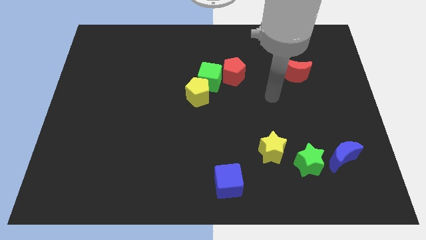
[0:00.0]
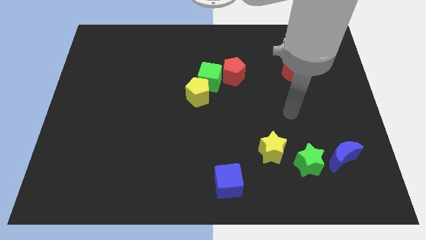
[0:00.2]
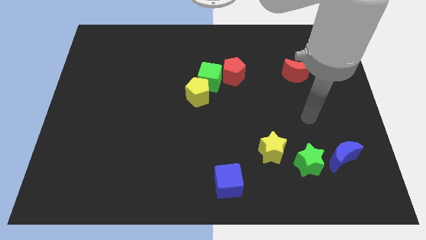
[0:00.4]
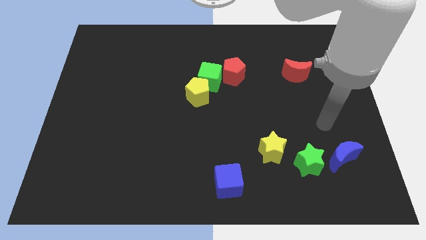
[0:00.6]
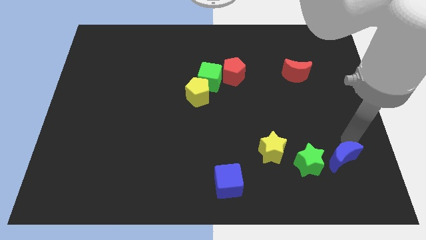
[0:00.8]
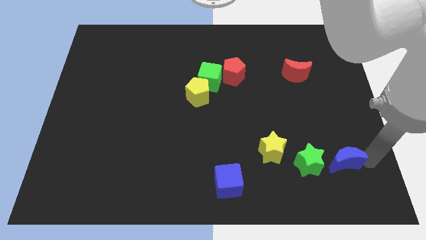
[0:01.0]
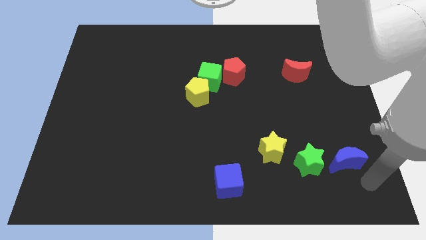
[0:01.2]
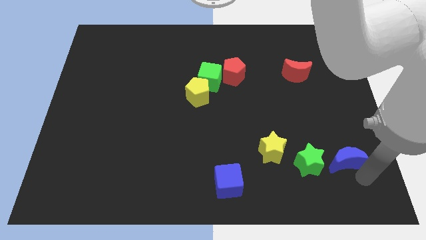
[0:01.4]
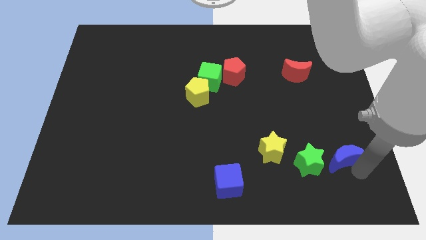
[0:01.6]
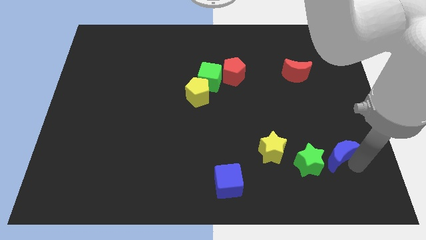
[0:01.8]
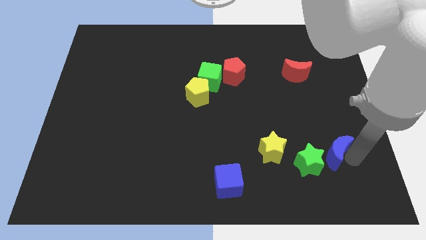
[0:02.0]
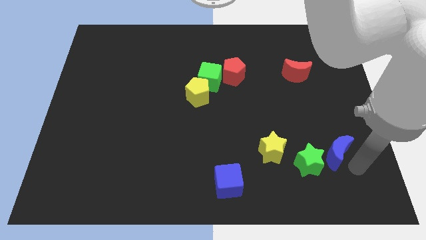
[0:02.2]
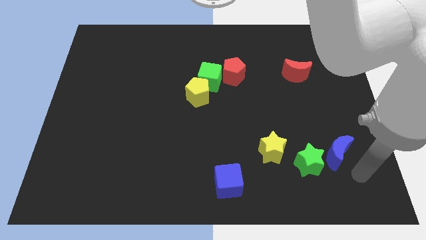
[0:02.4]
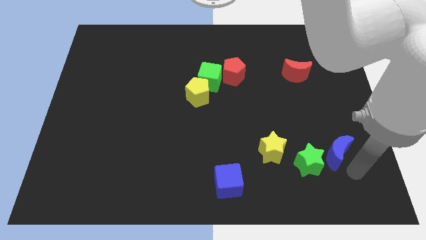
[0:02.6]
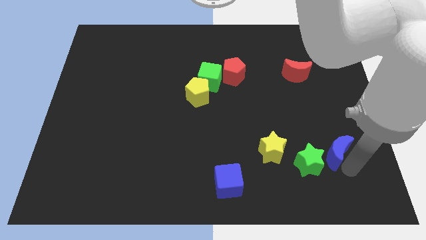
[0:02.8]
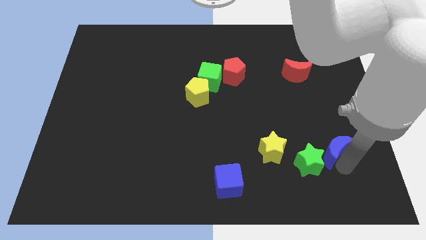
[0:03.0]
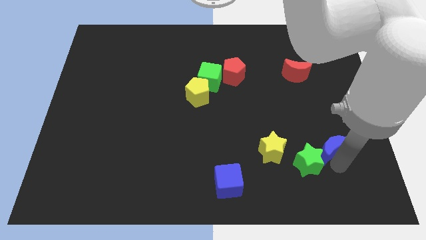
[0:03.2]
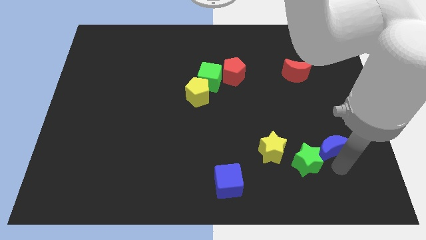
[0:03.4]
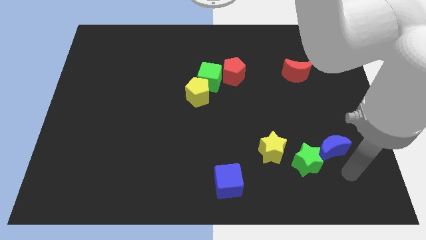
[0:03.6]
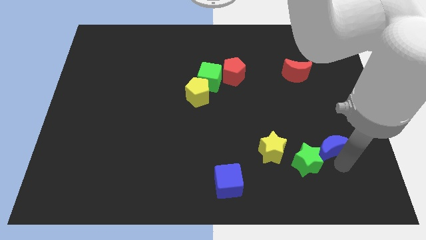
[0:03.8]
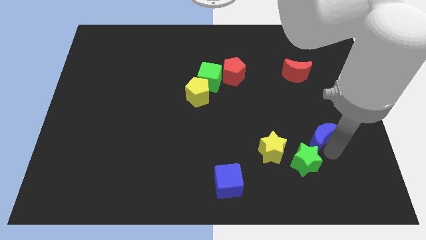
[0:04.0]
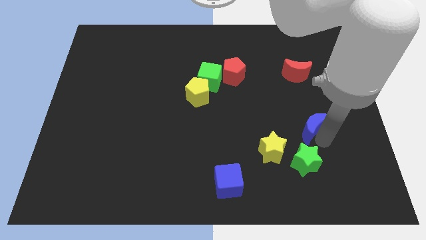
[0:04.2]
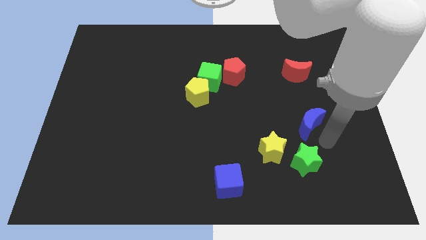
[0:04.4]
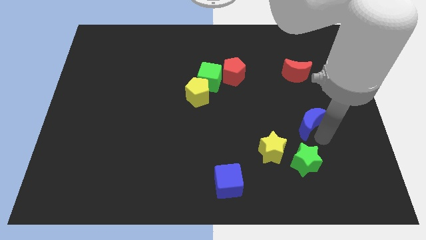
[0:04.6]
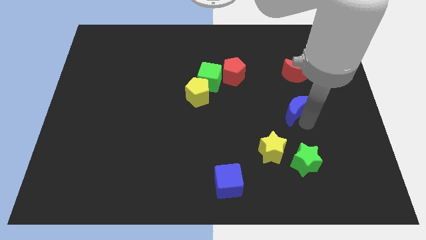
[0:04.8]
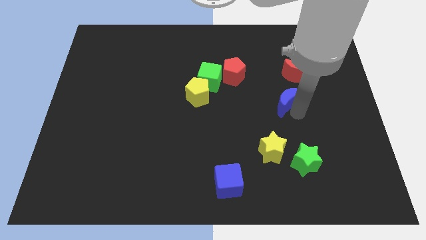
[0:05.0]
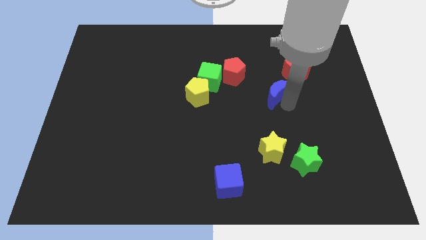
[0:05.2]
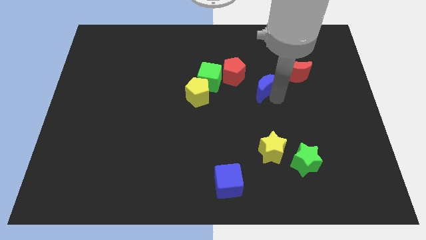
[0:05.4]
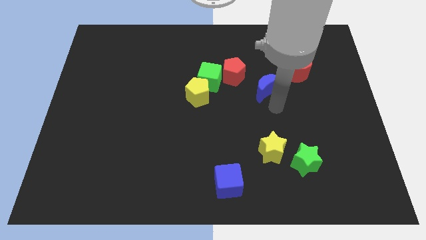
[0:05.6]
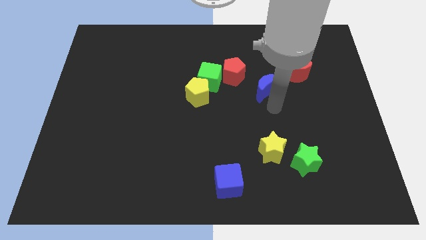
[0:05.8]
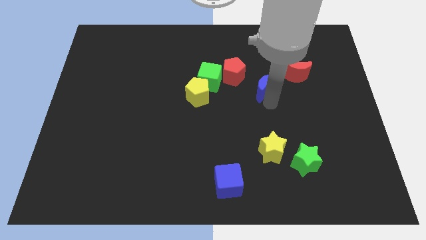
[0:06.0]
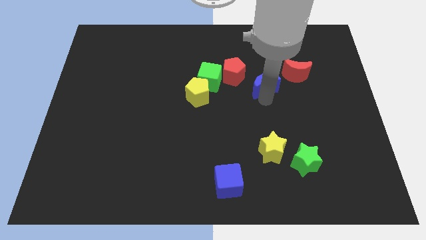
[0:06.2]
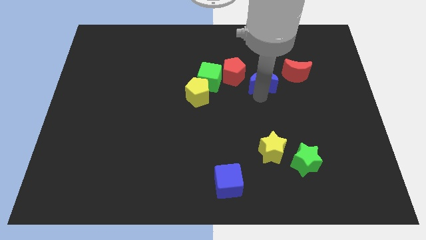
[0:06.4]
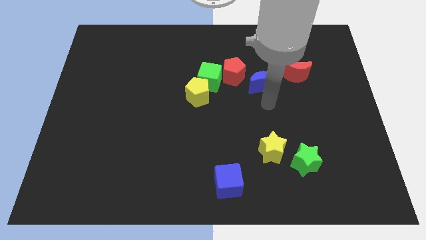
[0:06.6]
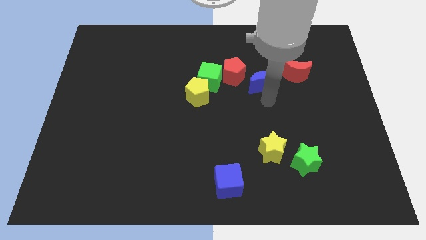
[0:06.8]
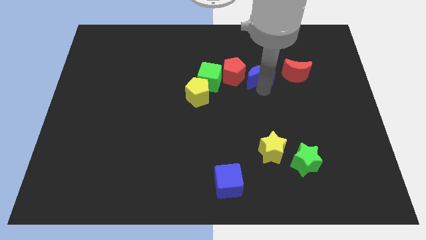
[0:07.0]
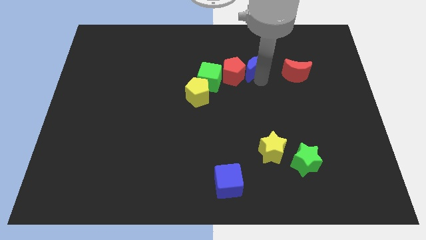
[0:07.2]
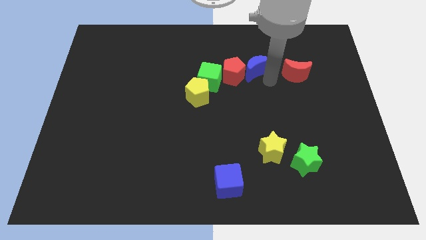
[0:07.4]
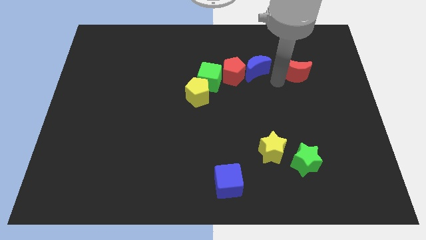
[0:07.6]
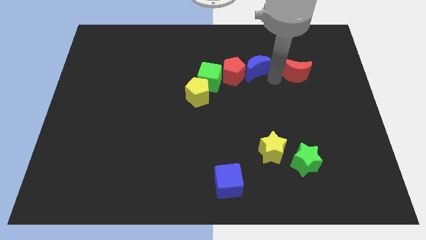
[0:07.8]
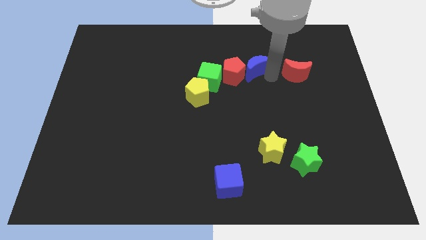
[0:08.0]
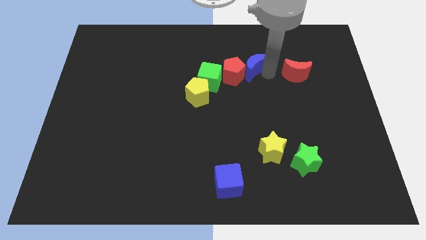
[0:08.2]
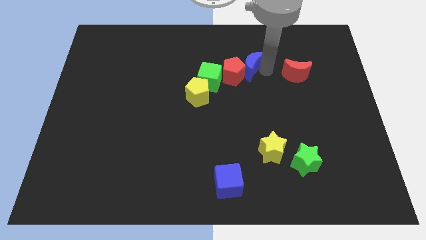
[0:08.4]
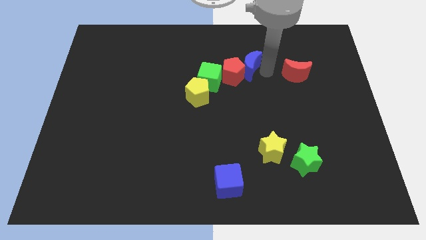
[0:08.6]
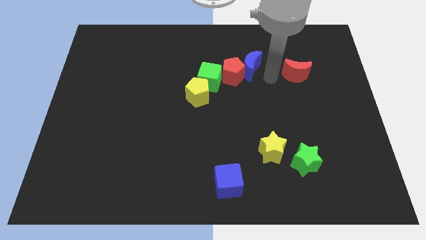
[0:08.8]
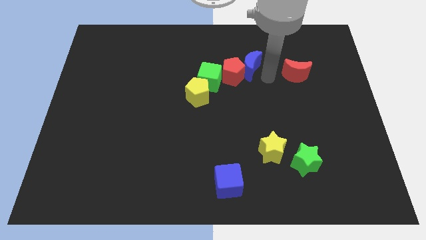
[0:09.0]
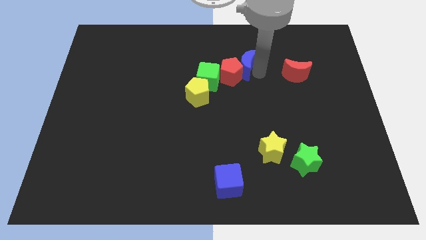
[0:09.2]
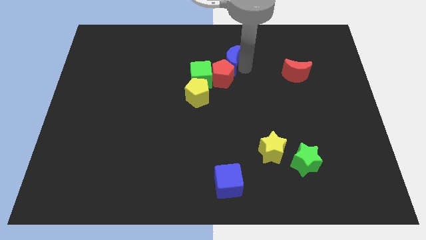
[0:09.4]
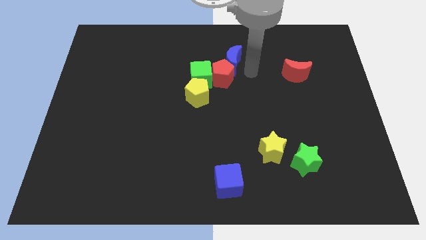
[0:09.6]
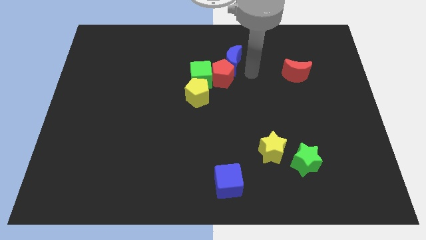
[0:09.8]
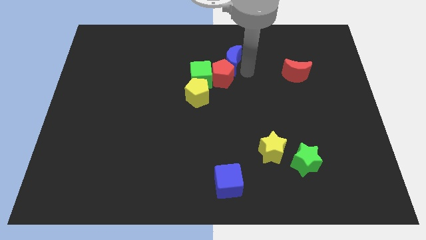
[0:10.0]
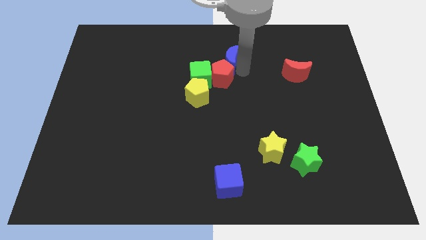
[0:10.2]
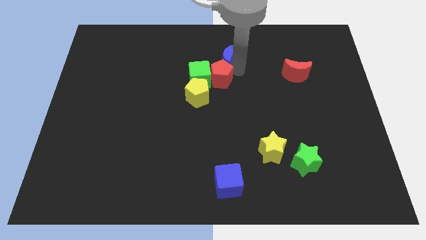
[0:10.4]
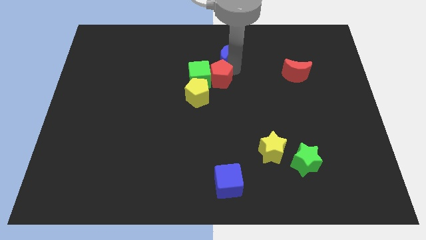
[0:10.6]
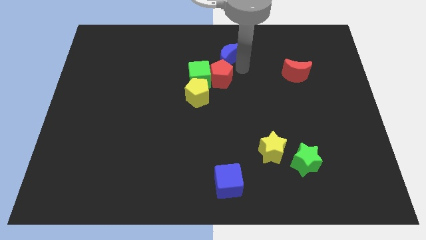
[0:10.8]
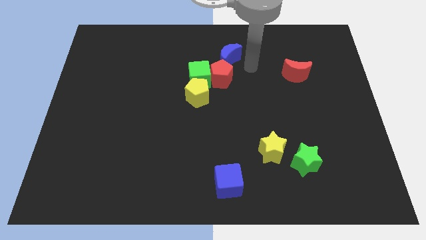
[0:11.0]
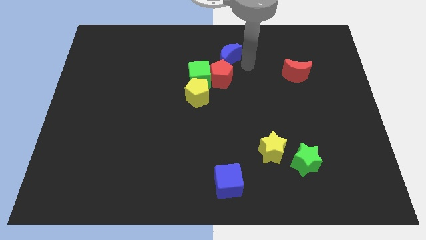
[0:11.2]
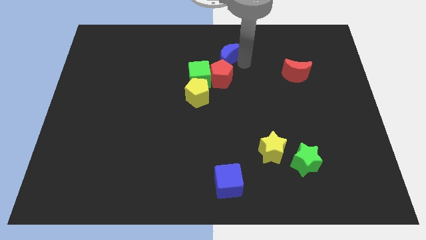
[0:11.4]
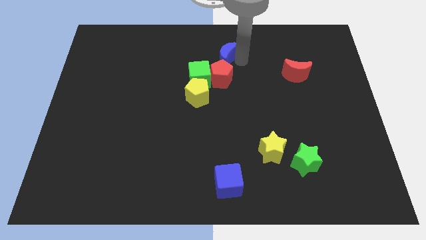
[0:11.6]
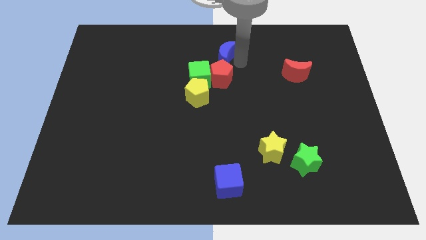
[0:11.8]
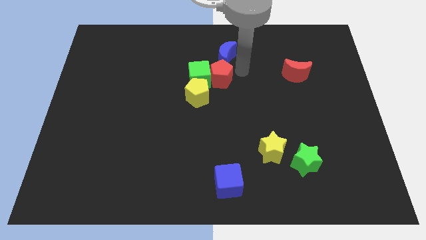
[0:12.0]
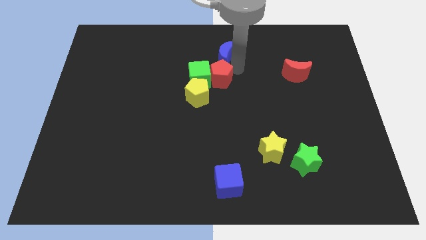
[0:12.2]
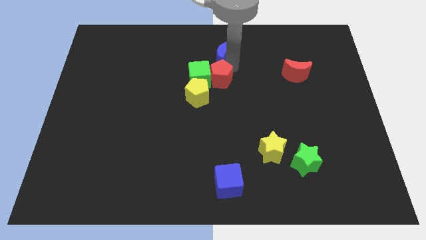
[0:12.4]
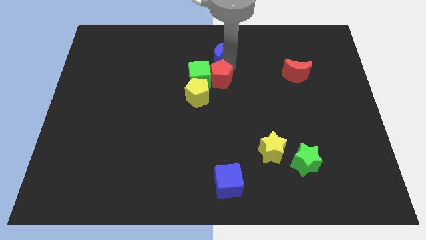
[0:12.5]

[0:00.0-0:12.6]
put the blue moon to the top

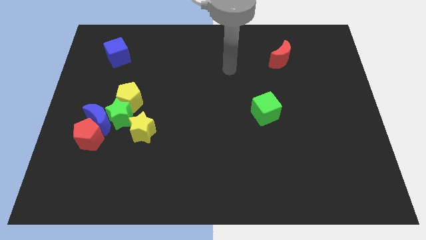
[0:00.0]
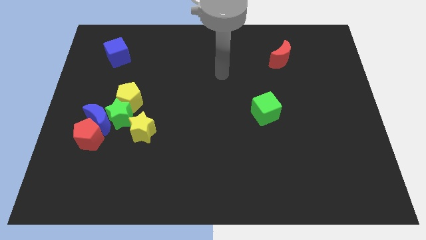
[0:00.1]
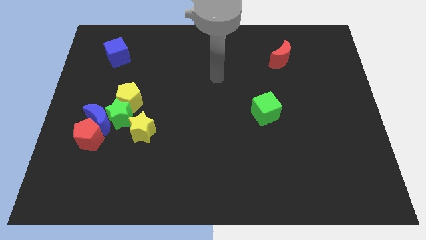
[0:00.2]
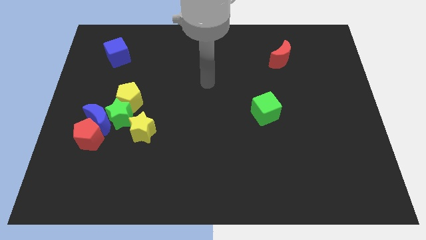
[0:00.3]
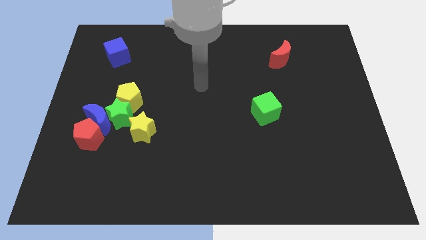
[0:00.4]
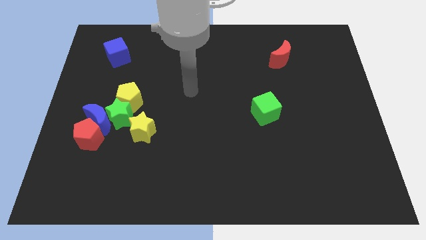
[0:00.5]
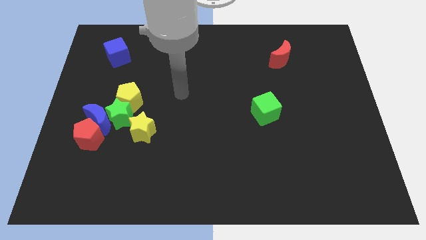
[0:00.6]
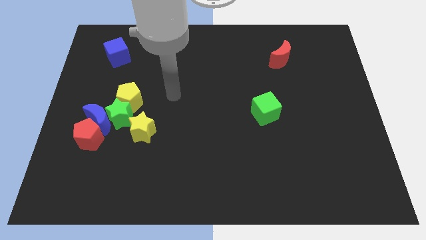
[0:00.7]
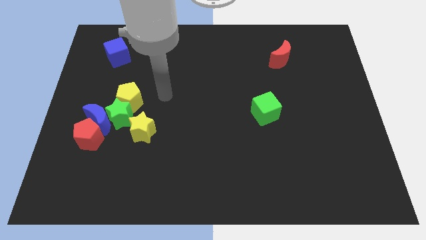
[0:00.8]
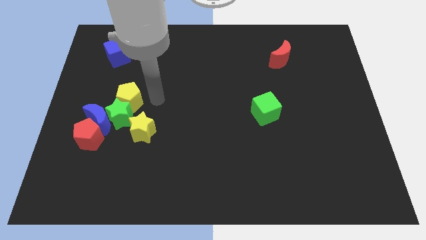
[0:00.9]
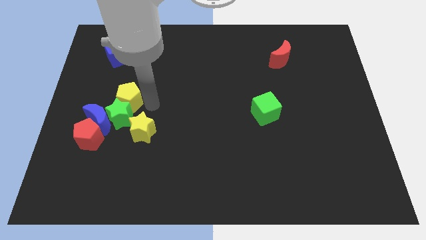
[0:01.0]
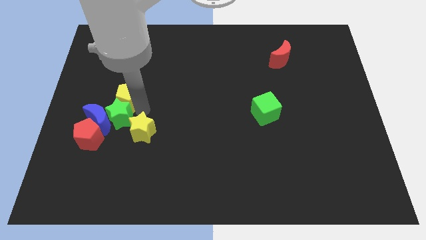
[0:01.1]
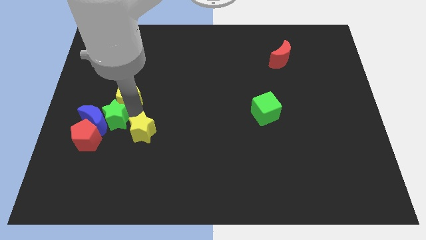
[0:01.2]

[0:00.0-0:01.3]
move the blue moon to the left side of the board
